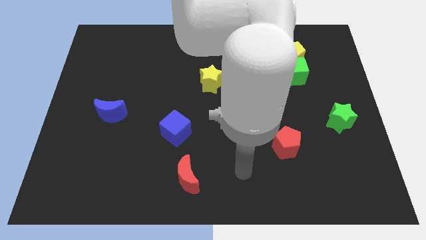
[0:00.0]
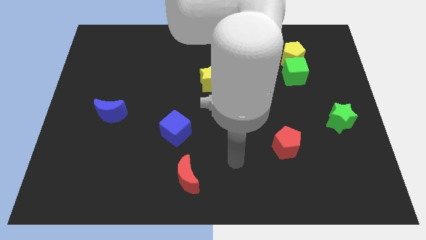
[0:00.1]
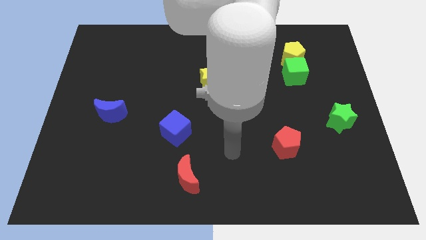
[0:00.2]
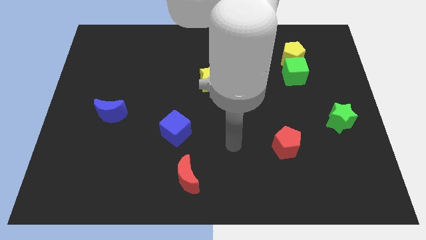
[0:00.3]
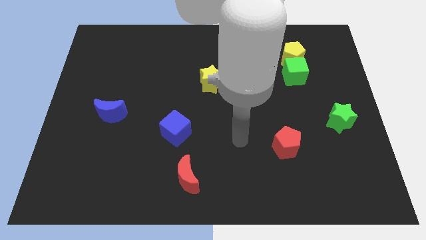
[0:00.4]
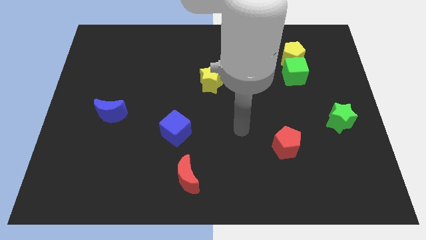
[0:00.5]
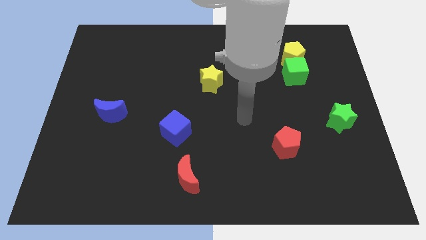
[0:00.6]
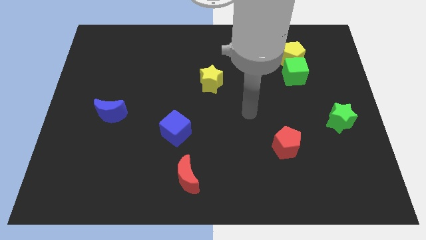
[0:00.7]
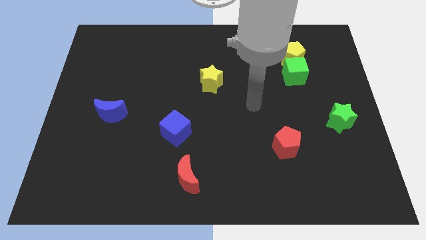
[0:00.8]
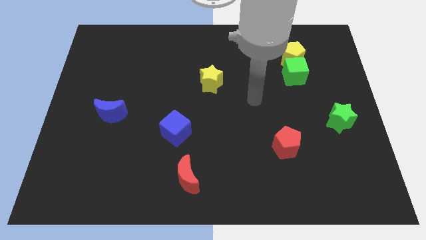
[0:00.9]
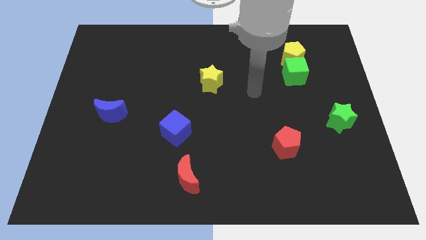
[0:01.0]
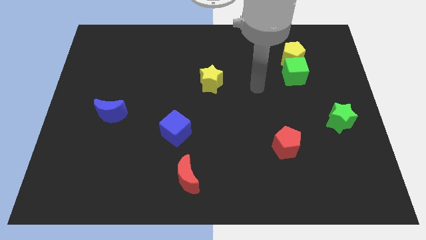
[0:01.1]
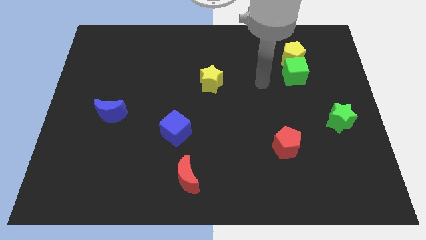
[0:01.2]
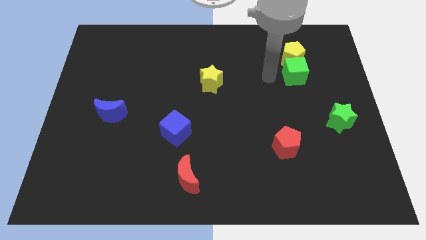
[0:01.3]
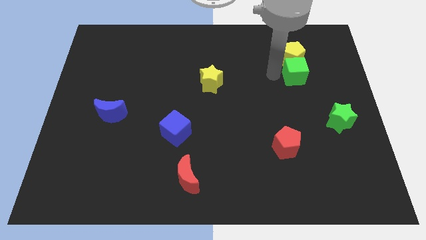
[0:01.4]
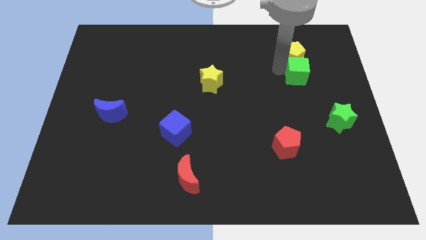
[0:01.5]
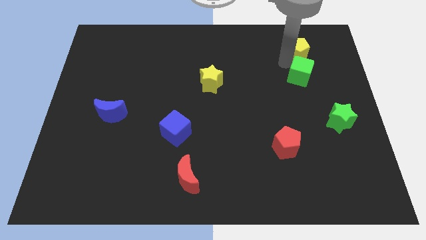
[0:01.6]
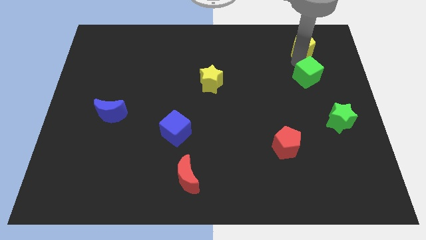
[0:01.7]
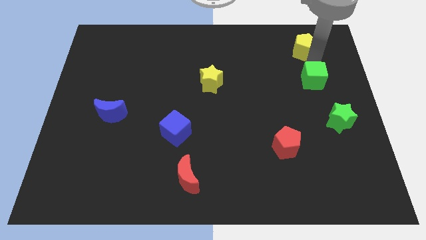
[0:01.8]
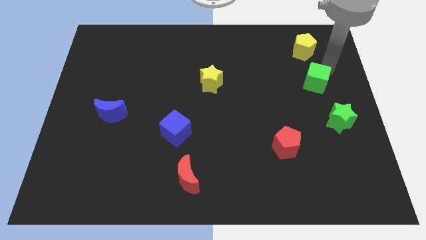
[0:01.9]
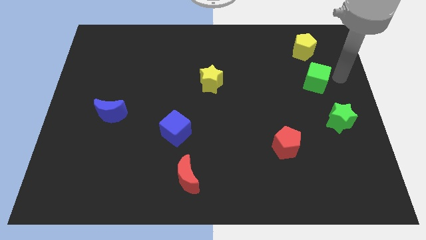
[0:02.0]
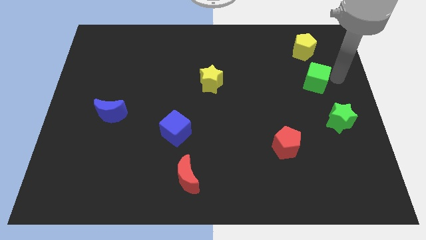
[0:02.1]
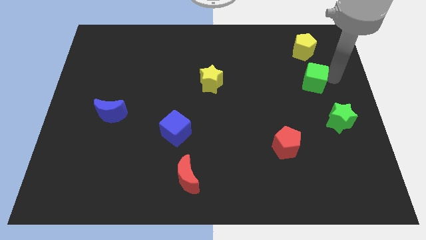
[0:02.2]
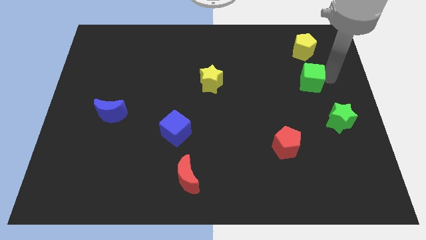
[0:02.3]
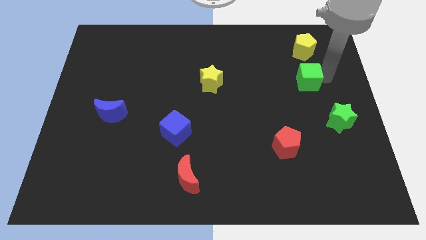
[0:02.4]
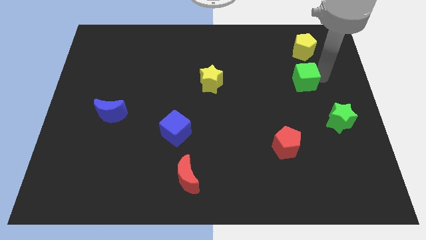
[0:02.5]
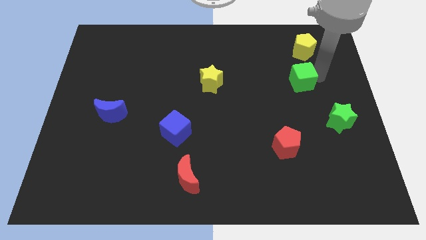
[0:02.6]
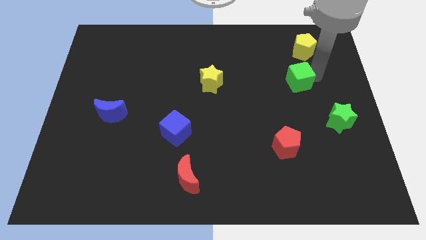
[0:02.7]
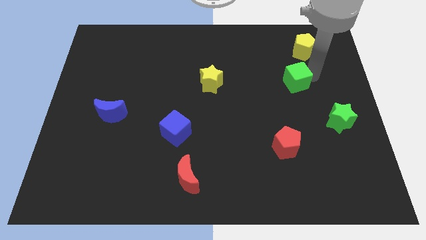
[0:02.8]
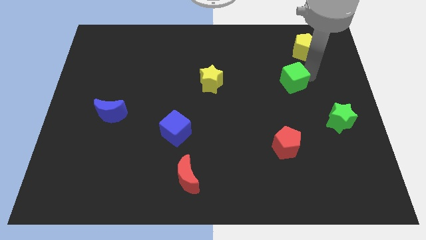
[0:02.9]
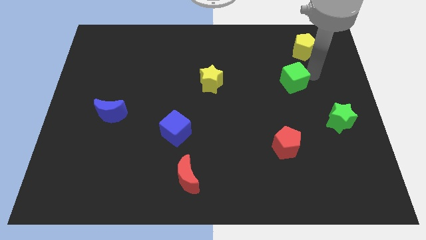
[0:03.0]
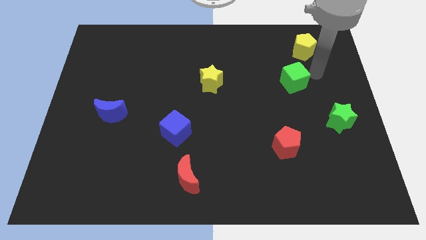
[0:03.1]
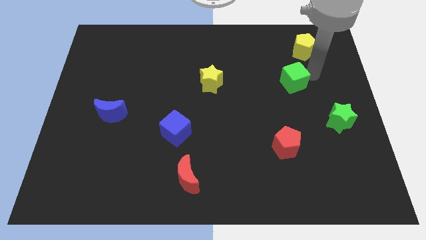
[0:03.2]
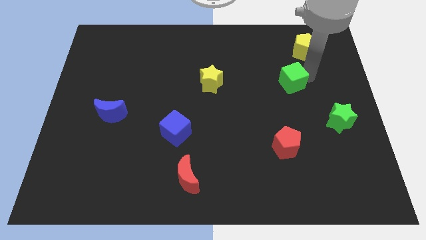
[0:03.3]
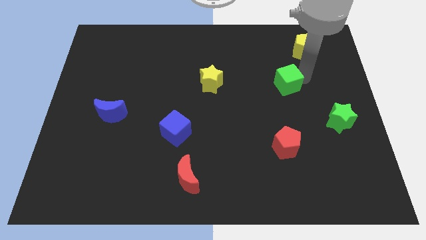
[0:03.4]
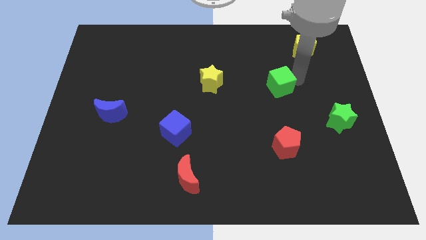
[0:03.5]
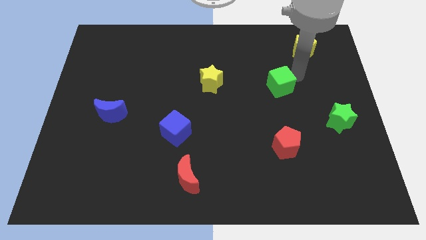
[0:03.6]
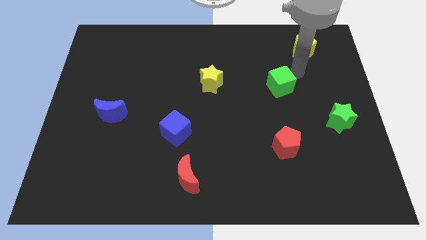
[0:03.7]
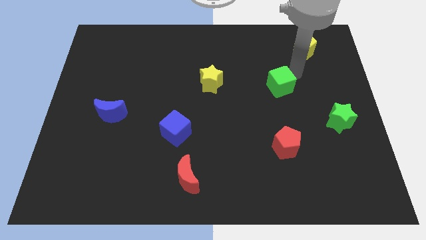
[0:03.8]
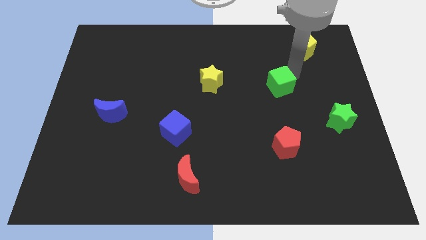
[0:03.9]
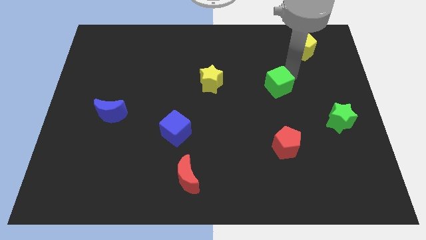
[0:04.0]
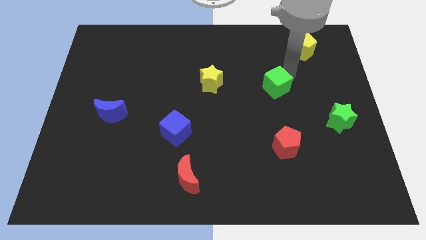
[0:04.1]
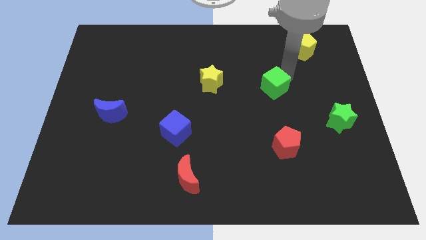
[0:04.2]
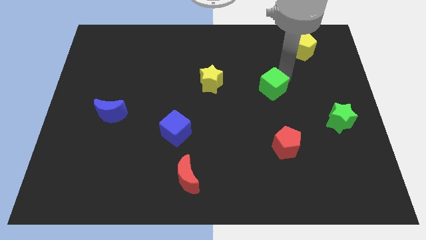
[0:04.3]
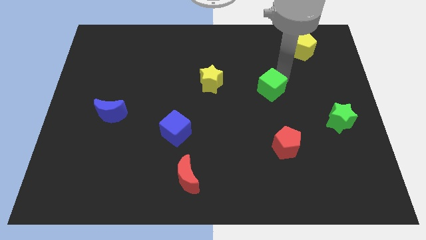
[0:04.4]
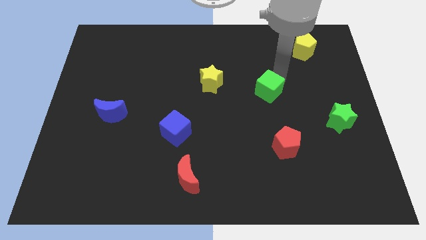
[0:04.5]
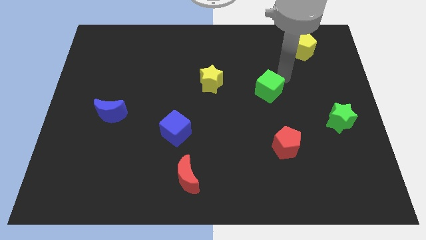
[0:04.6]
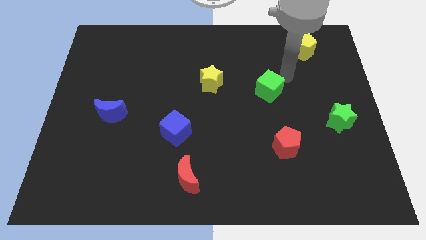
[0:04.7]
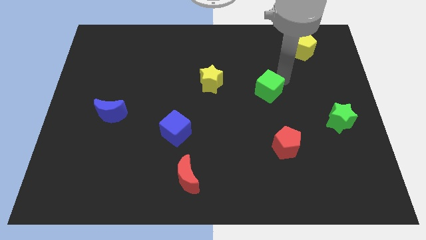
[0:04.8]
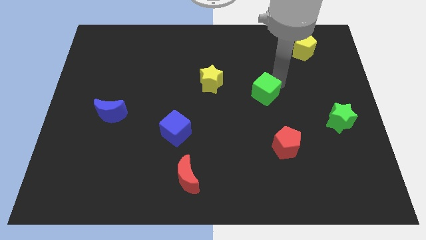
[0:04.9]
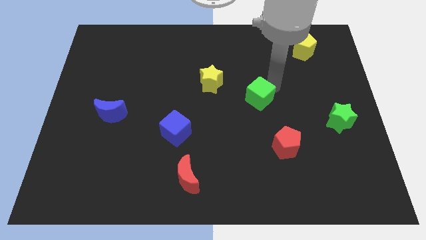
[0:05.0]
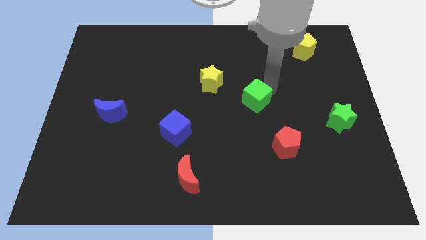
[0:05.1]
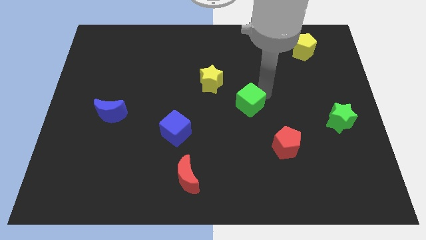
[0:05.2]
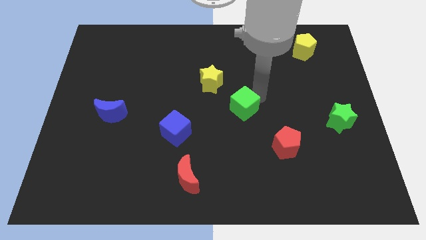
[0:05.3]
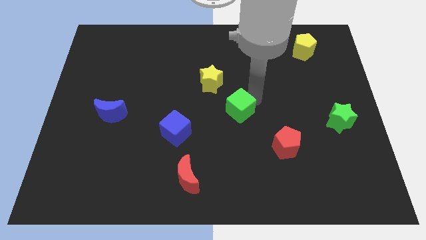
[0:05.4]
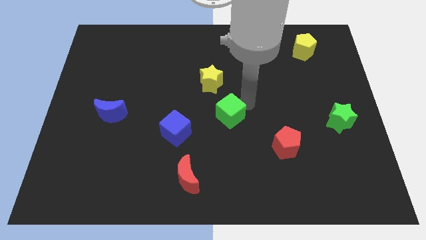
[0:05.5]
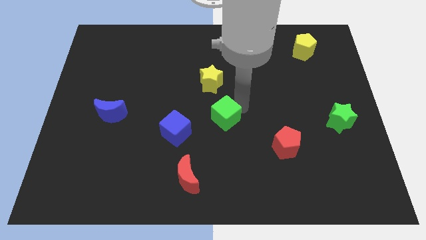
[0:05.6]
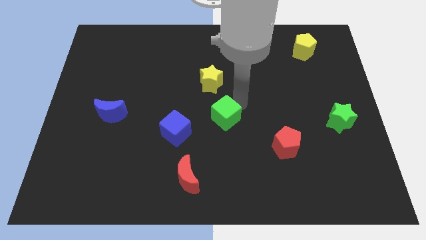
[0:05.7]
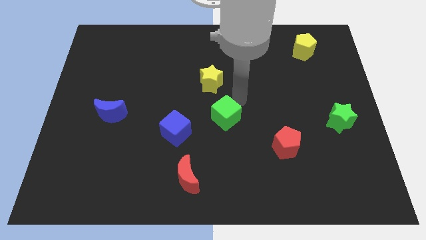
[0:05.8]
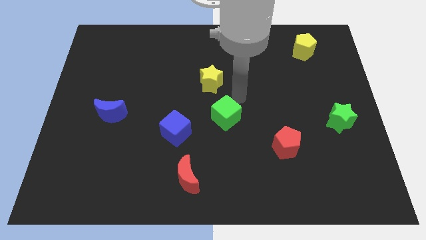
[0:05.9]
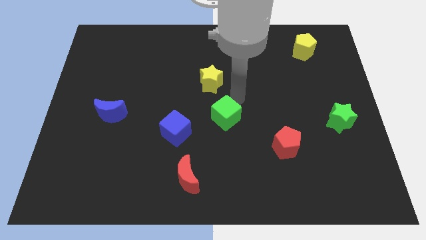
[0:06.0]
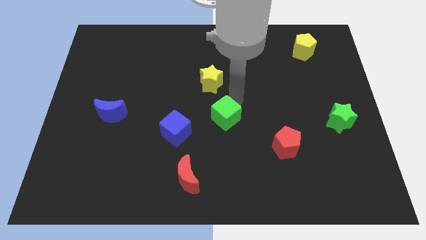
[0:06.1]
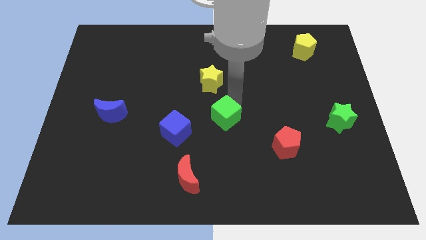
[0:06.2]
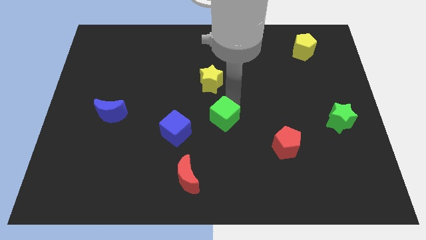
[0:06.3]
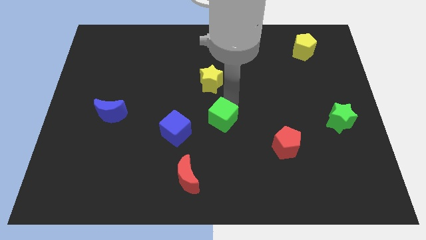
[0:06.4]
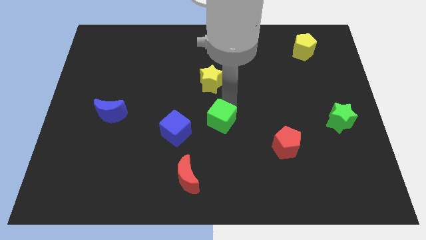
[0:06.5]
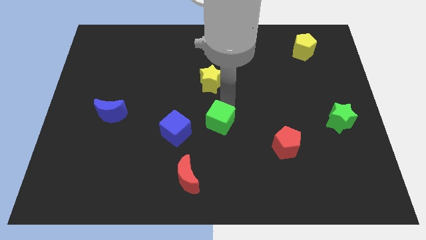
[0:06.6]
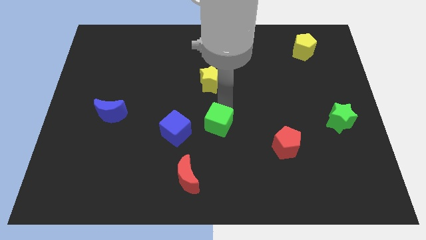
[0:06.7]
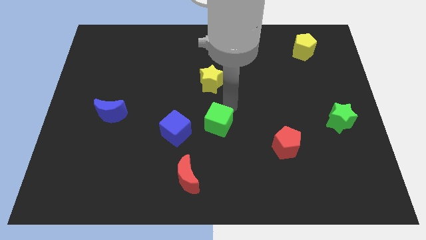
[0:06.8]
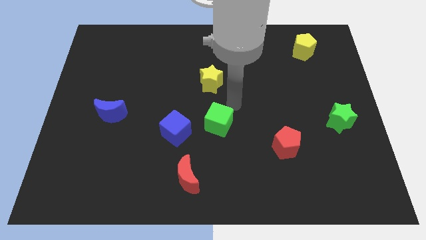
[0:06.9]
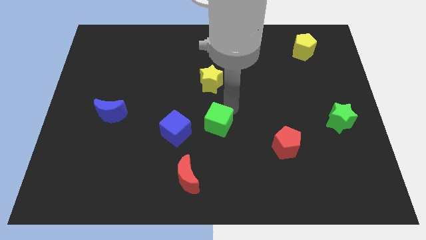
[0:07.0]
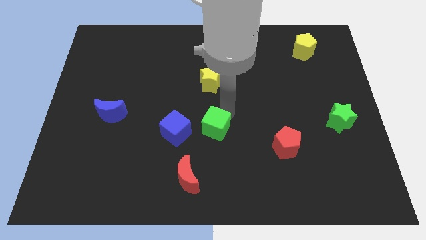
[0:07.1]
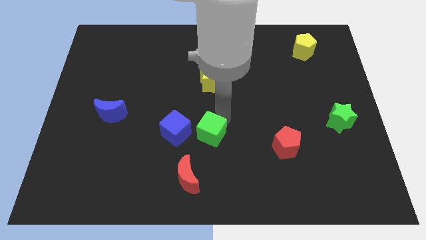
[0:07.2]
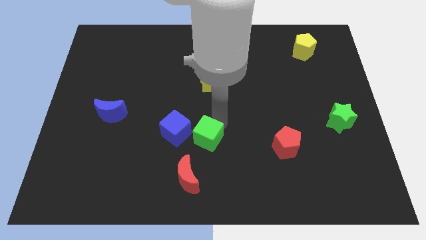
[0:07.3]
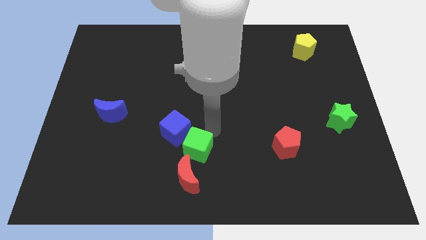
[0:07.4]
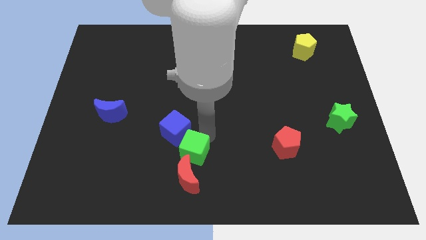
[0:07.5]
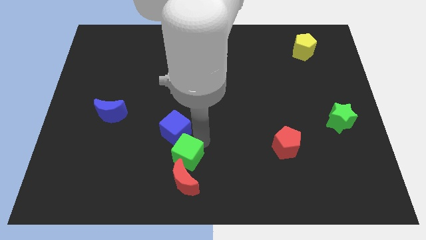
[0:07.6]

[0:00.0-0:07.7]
put the green cube towards the red moon

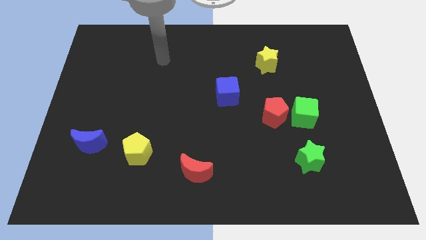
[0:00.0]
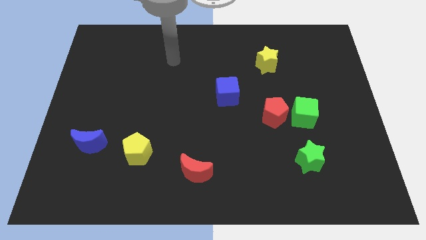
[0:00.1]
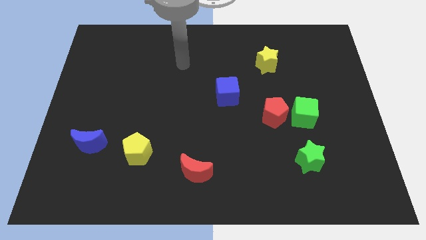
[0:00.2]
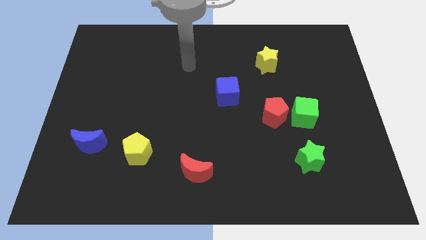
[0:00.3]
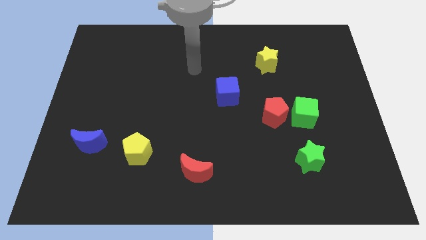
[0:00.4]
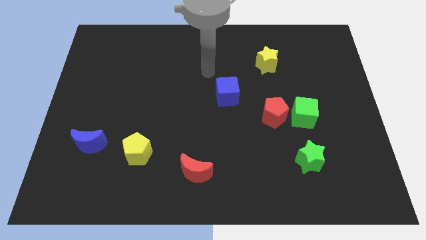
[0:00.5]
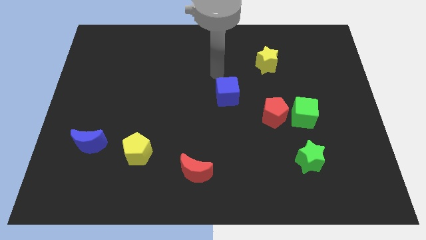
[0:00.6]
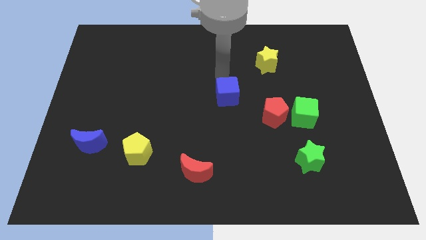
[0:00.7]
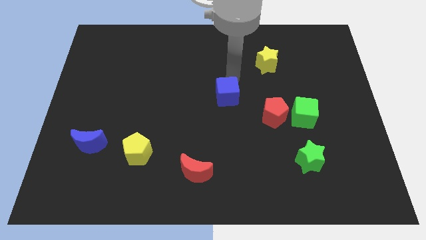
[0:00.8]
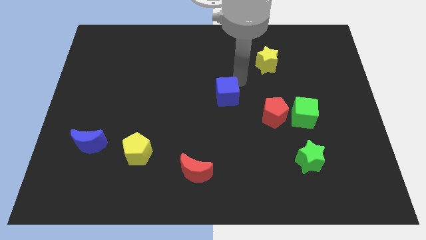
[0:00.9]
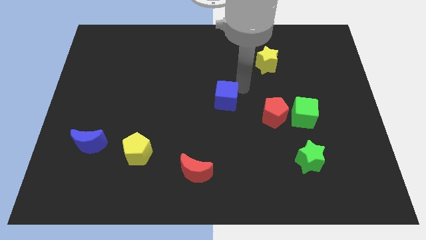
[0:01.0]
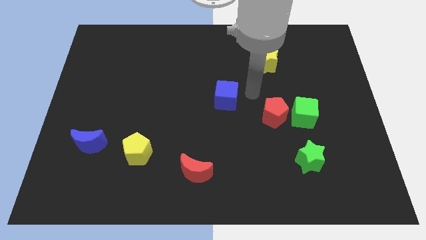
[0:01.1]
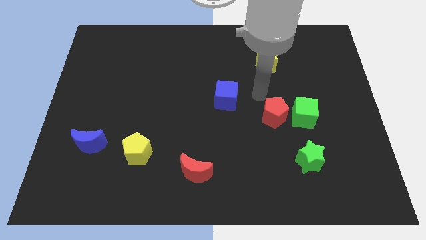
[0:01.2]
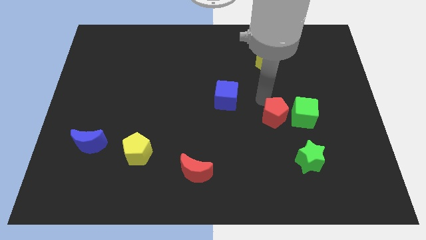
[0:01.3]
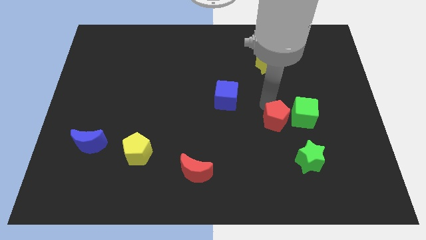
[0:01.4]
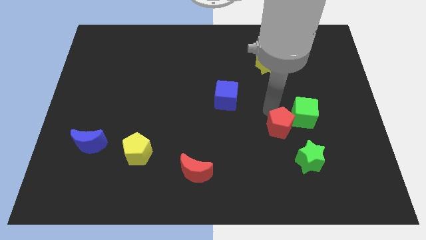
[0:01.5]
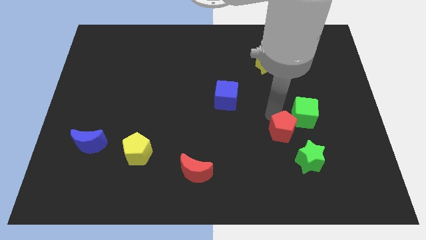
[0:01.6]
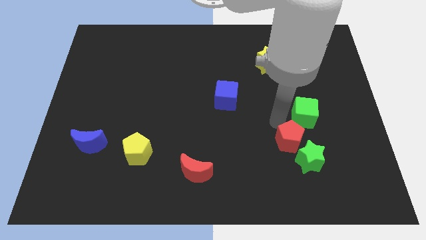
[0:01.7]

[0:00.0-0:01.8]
move the red pentagon to the green star
